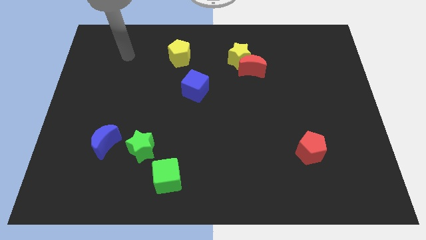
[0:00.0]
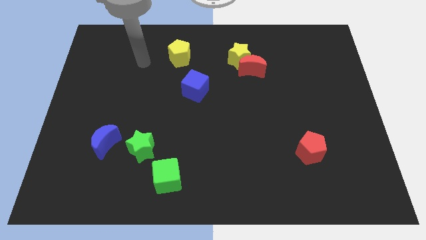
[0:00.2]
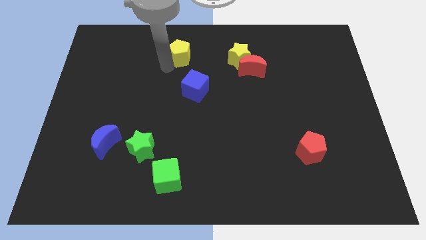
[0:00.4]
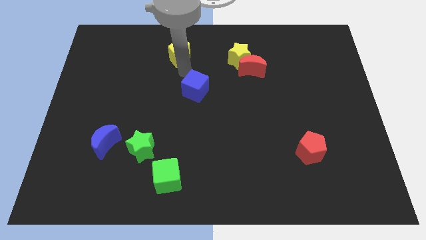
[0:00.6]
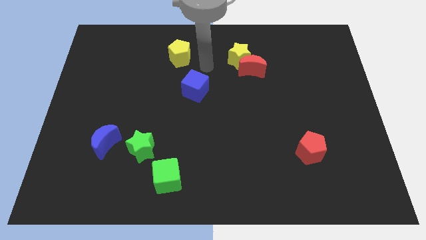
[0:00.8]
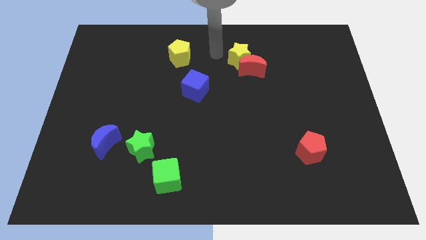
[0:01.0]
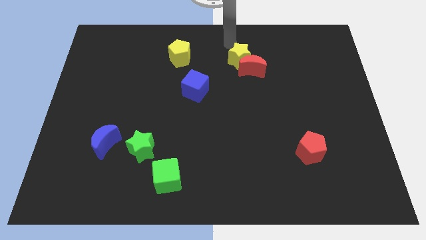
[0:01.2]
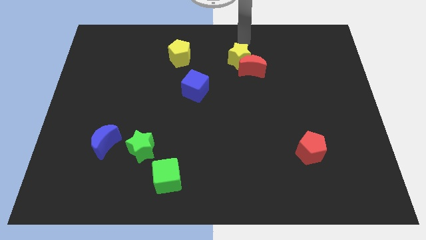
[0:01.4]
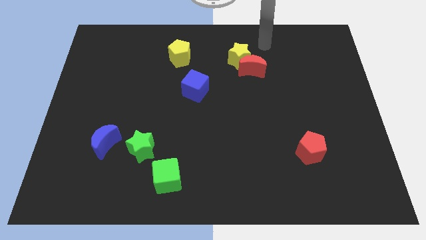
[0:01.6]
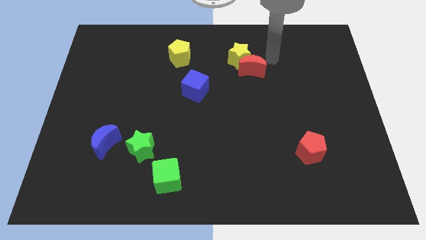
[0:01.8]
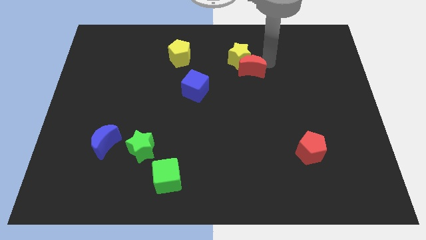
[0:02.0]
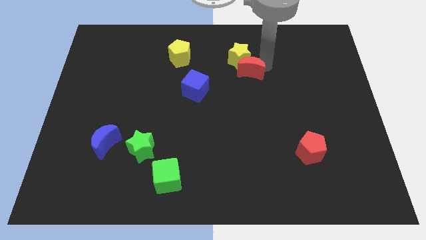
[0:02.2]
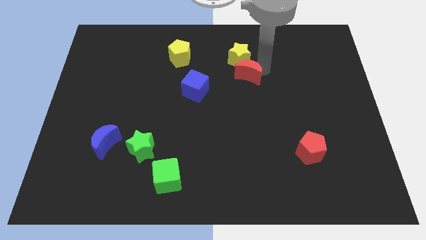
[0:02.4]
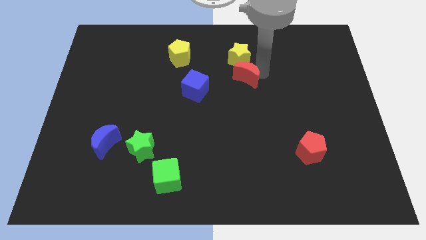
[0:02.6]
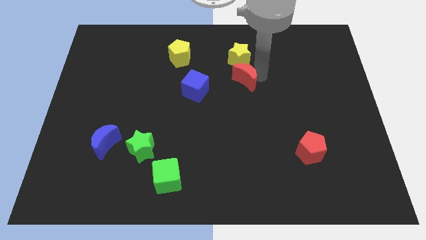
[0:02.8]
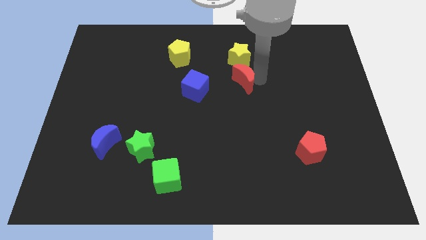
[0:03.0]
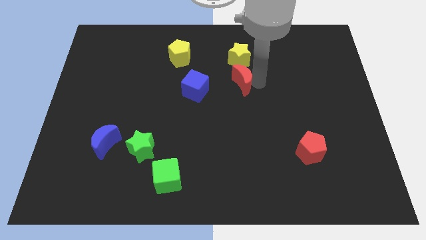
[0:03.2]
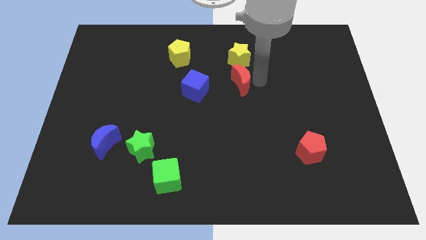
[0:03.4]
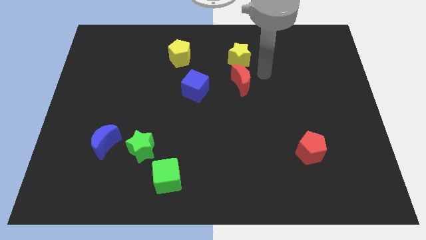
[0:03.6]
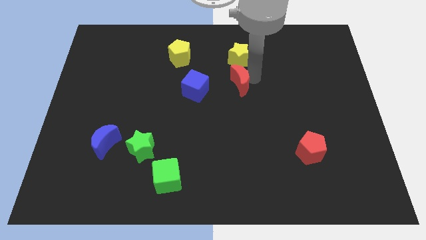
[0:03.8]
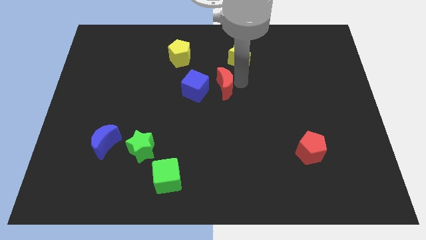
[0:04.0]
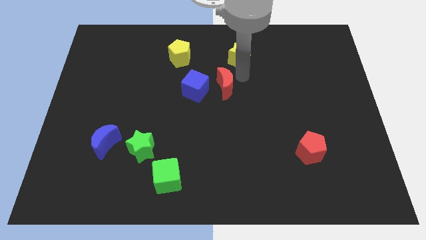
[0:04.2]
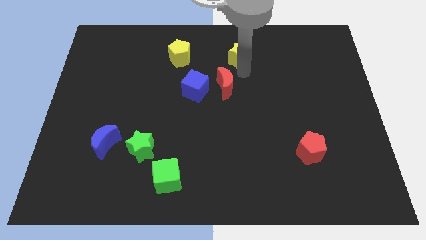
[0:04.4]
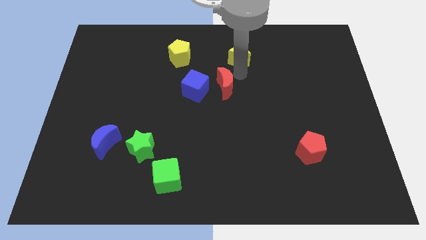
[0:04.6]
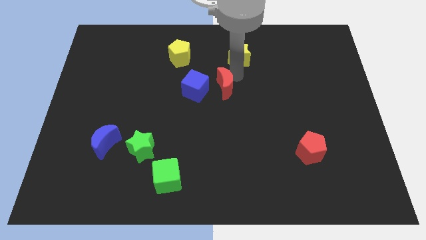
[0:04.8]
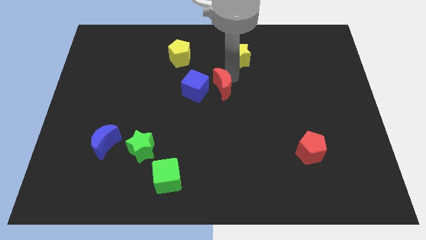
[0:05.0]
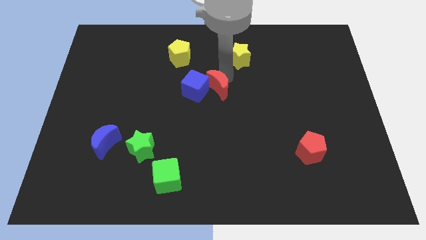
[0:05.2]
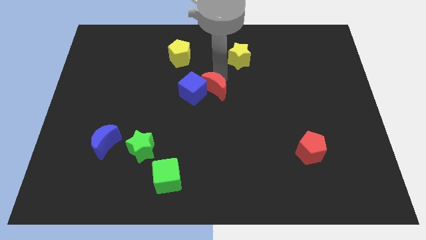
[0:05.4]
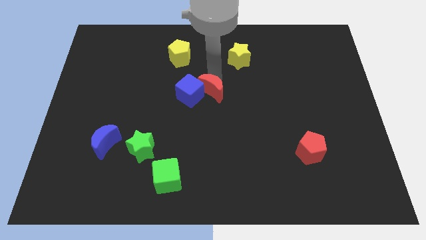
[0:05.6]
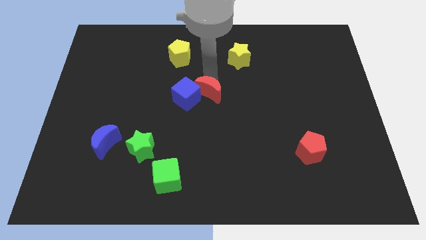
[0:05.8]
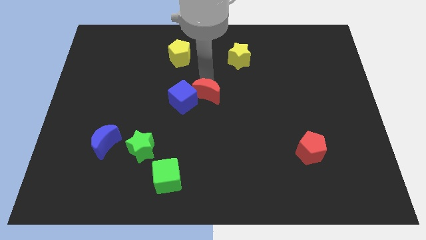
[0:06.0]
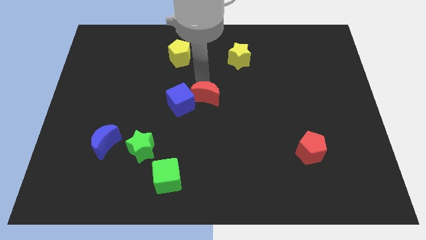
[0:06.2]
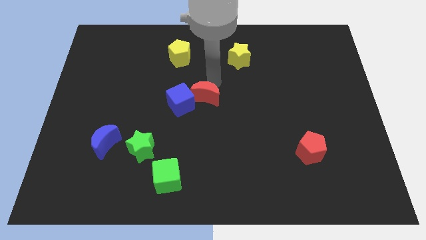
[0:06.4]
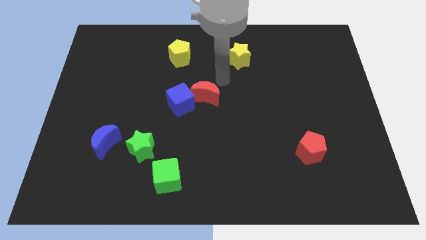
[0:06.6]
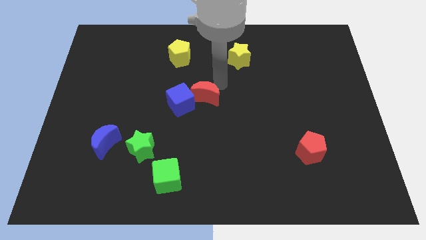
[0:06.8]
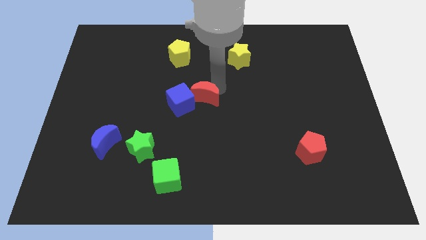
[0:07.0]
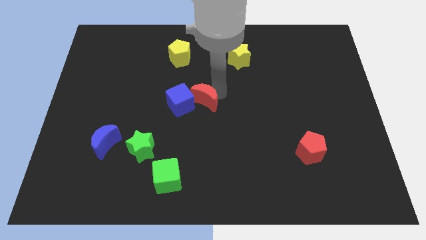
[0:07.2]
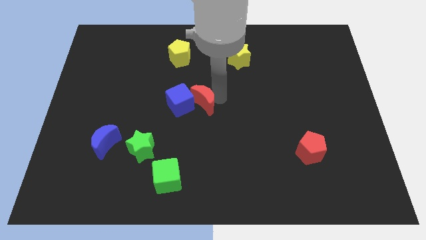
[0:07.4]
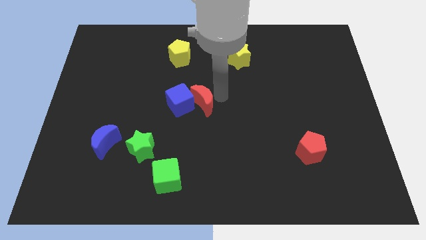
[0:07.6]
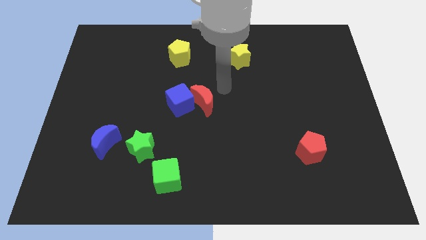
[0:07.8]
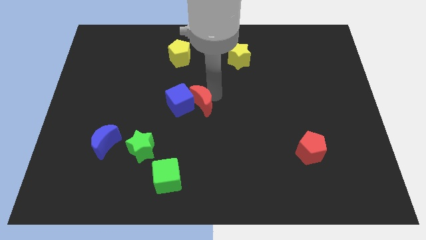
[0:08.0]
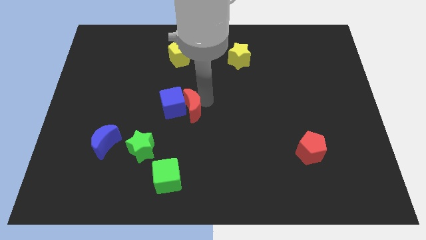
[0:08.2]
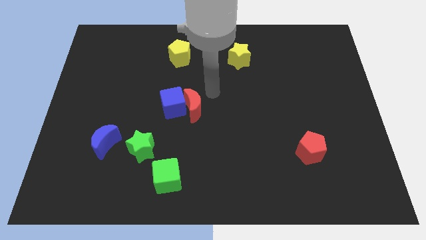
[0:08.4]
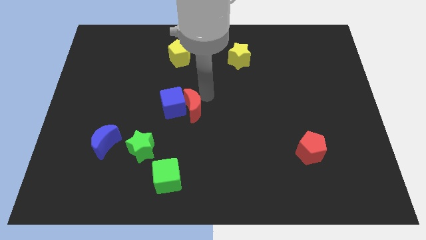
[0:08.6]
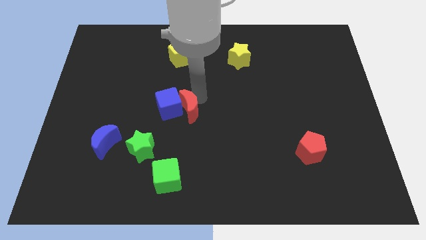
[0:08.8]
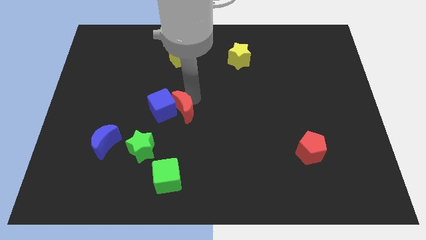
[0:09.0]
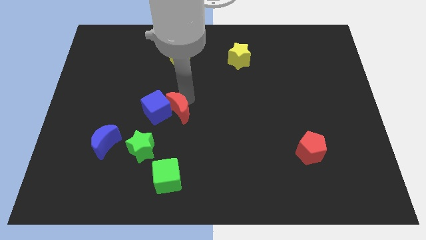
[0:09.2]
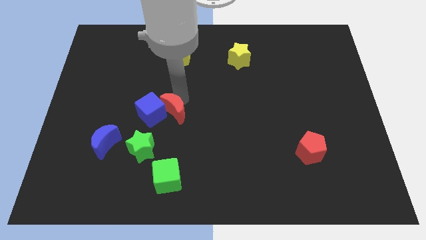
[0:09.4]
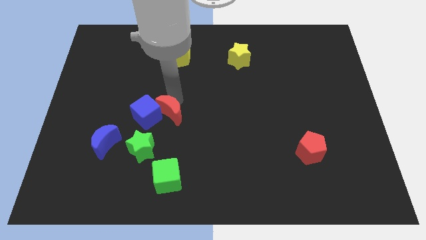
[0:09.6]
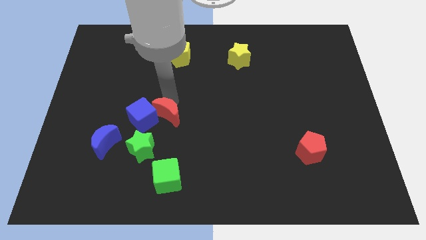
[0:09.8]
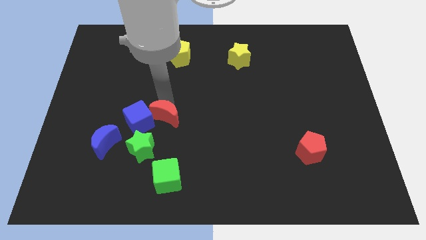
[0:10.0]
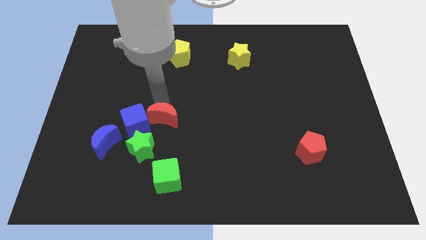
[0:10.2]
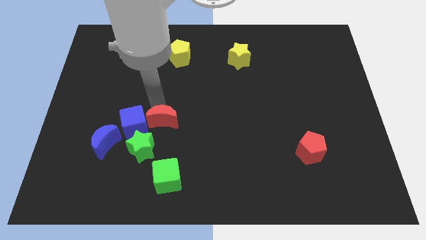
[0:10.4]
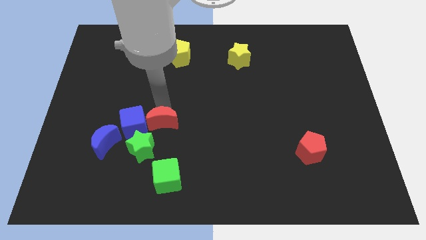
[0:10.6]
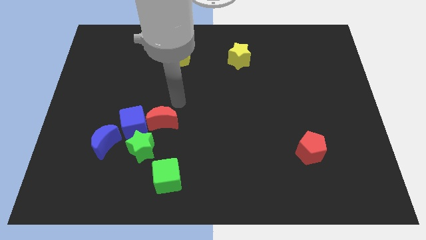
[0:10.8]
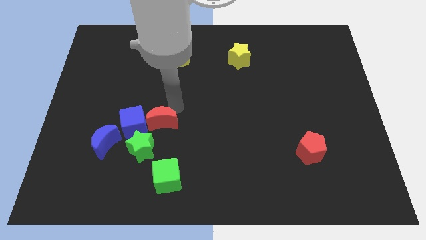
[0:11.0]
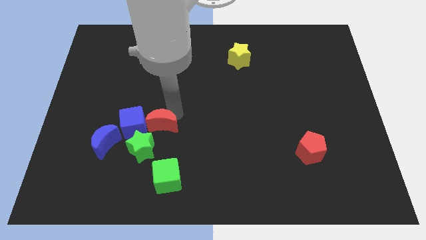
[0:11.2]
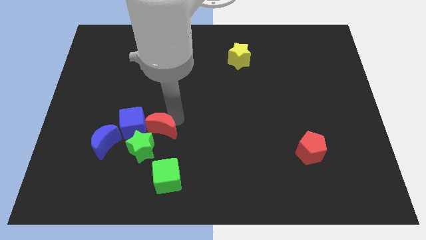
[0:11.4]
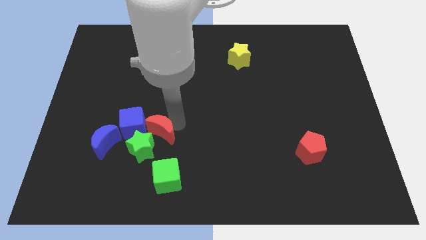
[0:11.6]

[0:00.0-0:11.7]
put the red moon close to the green star

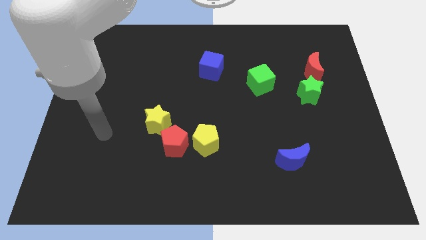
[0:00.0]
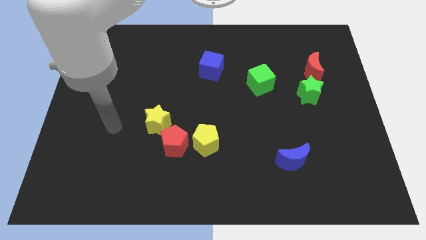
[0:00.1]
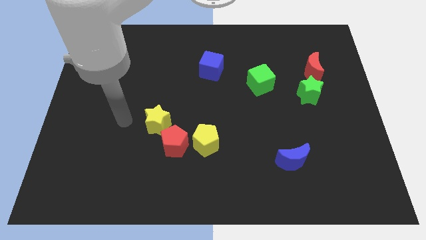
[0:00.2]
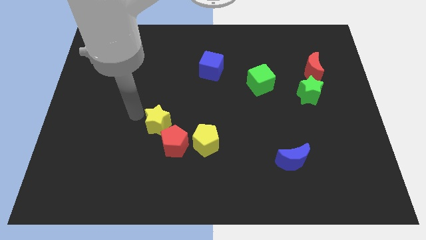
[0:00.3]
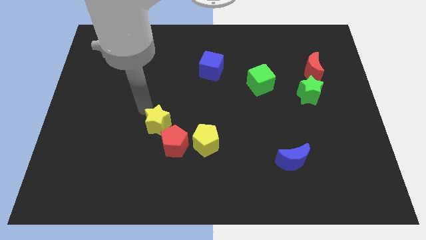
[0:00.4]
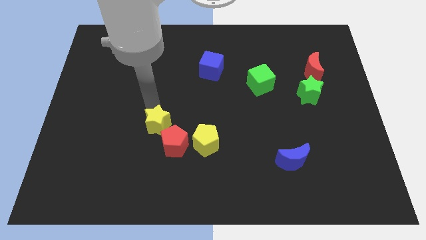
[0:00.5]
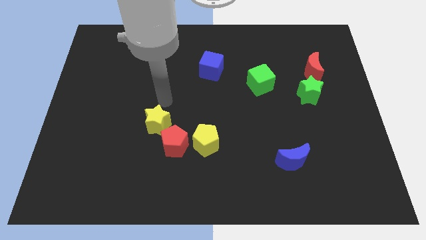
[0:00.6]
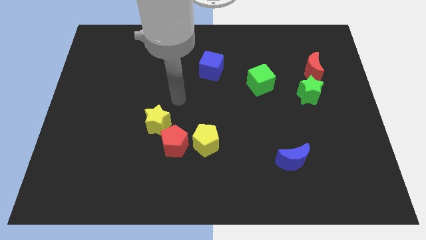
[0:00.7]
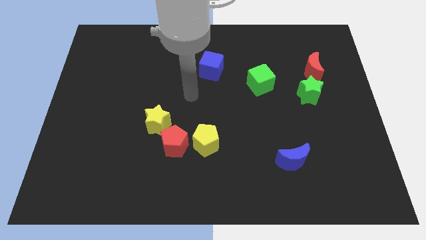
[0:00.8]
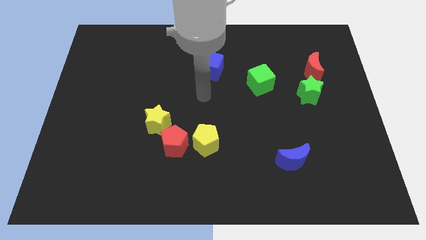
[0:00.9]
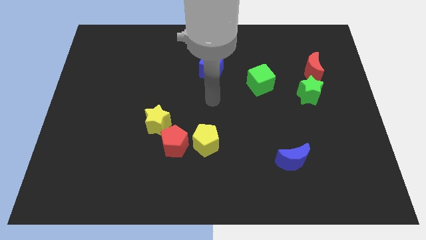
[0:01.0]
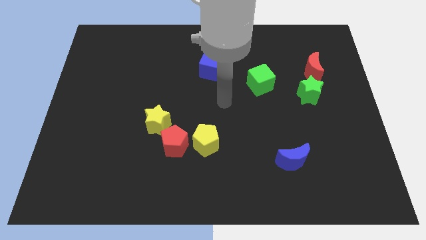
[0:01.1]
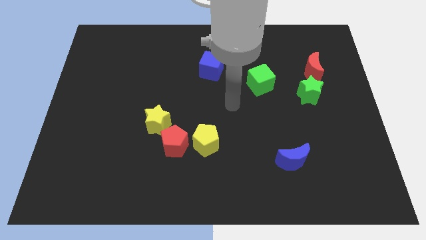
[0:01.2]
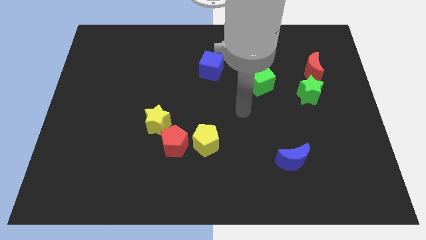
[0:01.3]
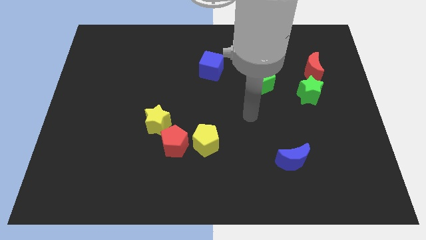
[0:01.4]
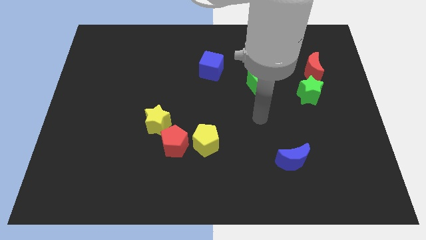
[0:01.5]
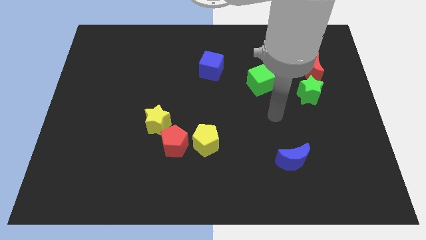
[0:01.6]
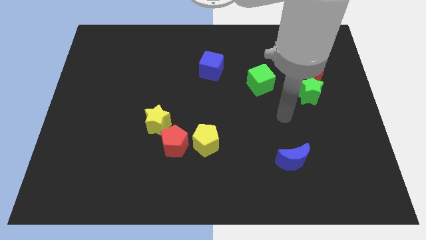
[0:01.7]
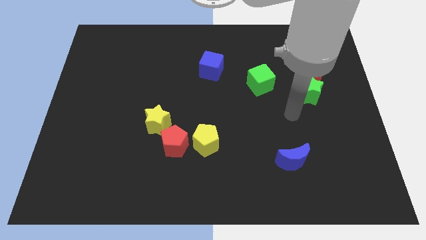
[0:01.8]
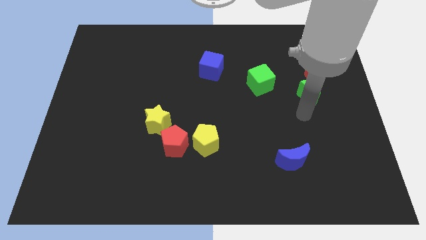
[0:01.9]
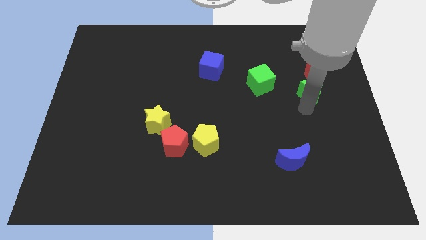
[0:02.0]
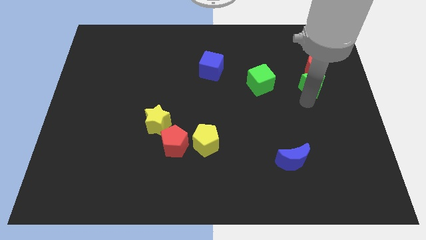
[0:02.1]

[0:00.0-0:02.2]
slide the green star close to the red moon
